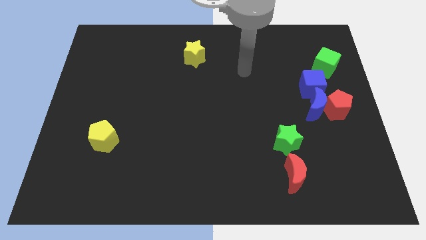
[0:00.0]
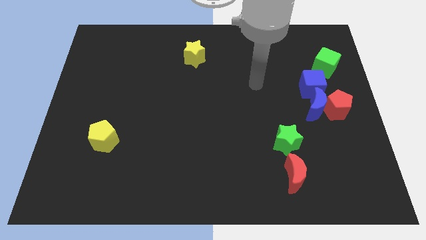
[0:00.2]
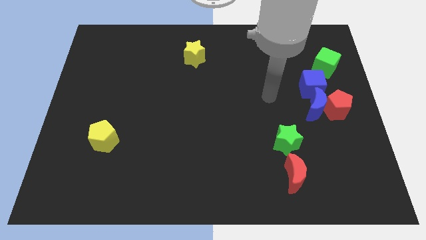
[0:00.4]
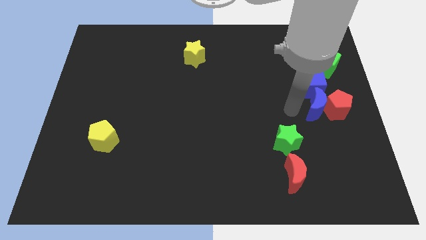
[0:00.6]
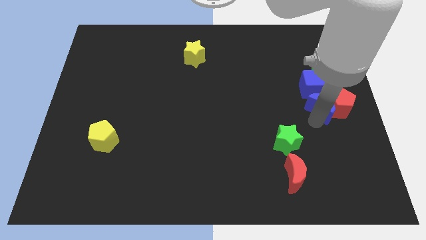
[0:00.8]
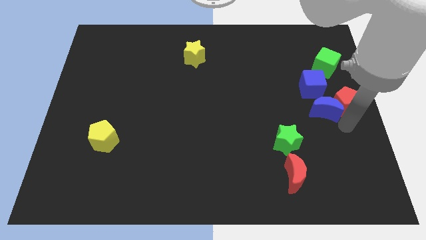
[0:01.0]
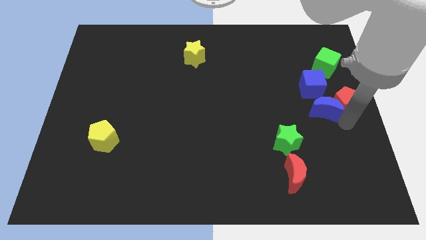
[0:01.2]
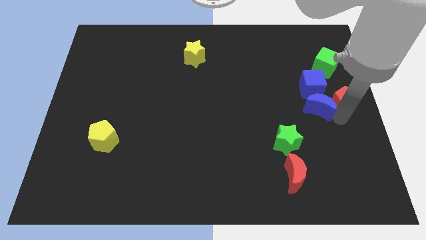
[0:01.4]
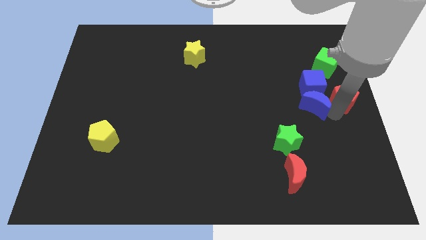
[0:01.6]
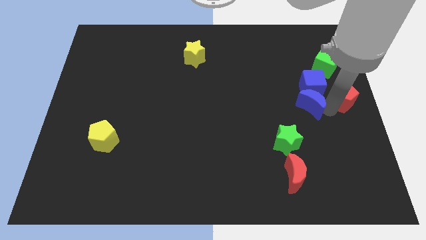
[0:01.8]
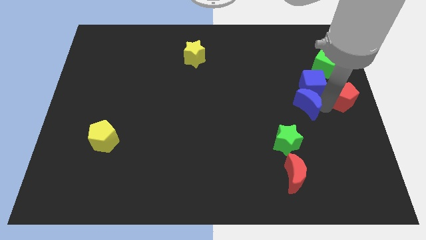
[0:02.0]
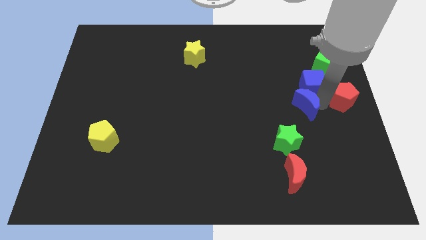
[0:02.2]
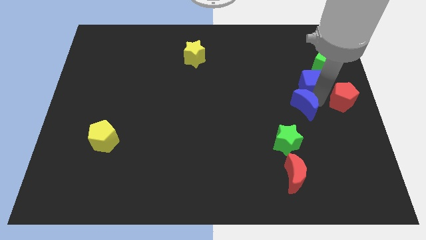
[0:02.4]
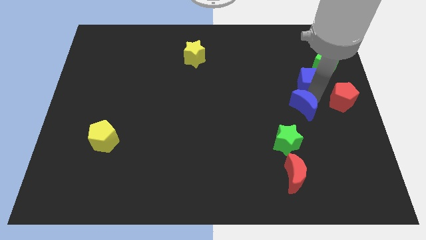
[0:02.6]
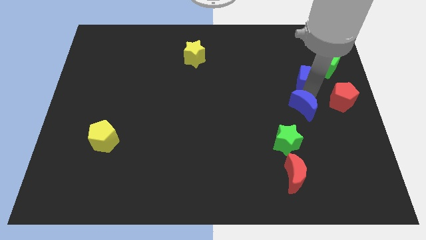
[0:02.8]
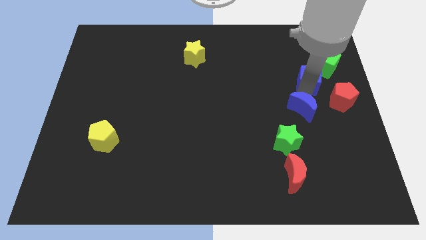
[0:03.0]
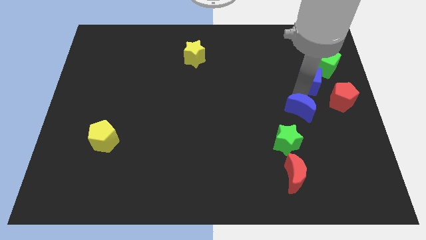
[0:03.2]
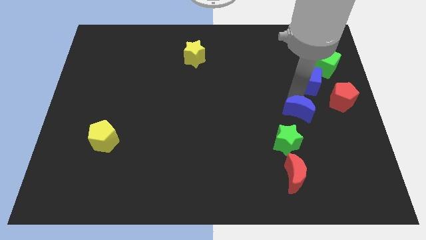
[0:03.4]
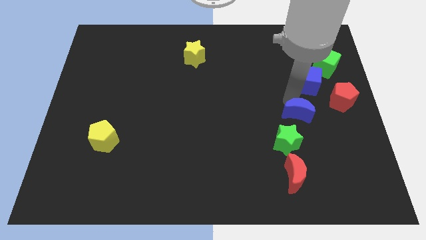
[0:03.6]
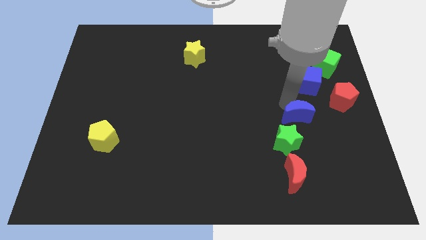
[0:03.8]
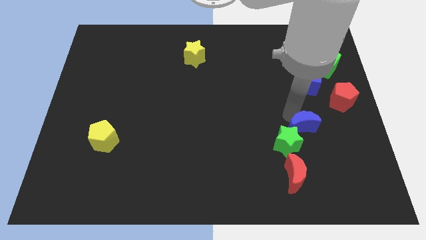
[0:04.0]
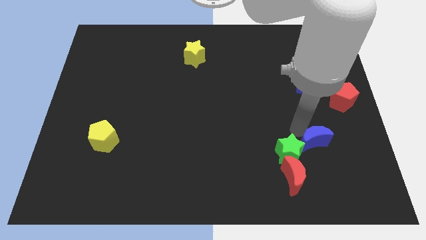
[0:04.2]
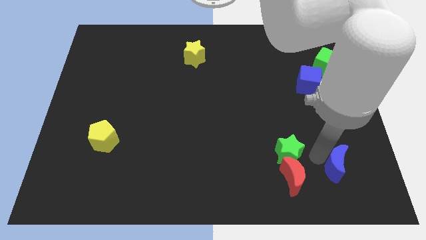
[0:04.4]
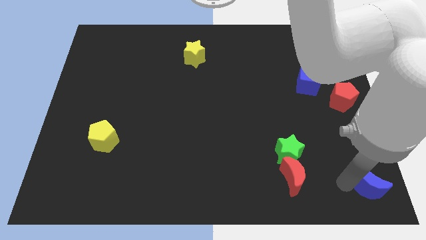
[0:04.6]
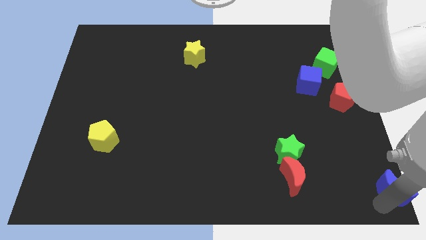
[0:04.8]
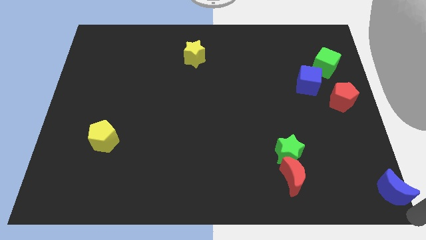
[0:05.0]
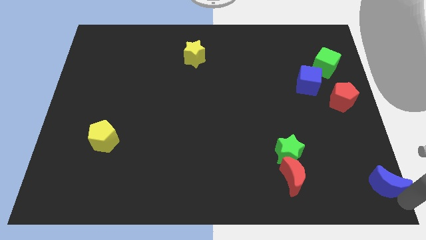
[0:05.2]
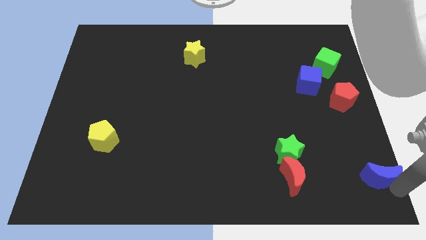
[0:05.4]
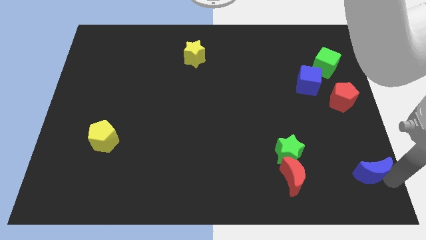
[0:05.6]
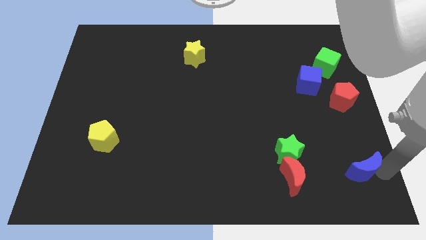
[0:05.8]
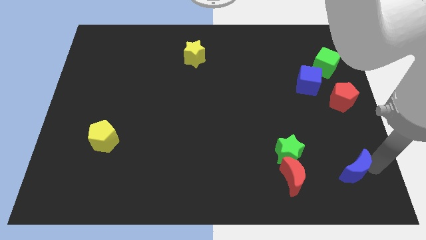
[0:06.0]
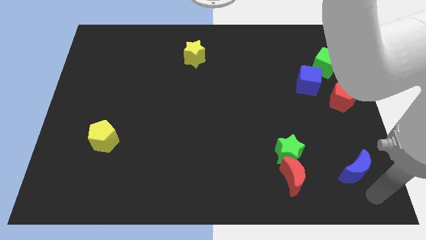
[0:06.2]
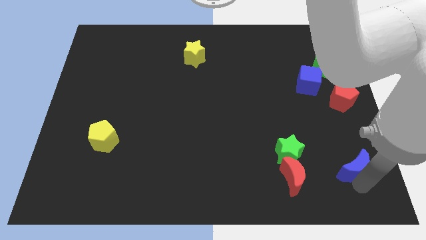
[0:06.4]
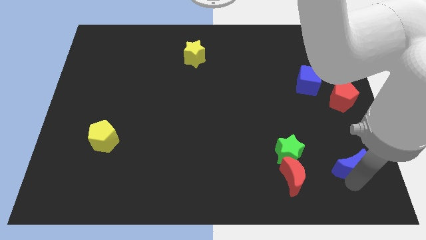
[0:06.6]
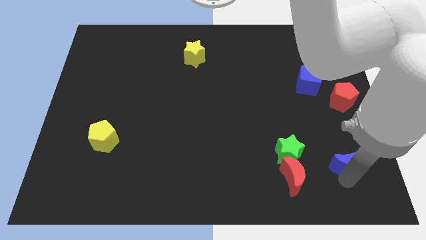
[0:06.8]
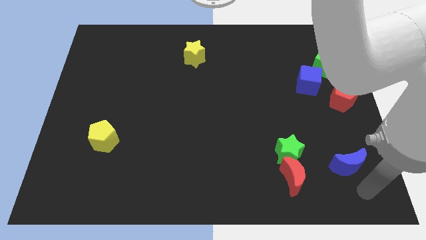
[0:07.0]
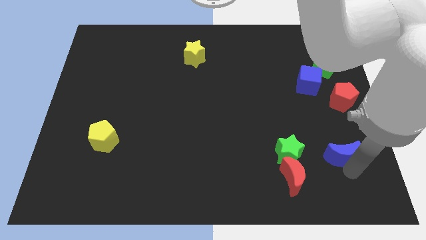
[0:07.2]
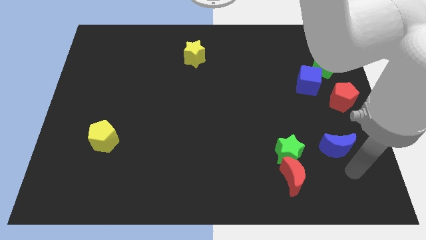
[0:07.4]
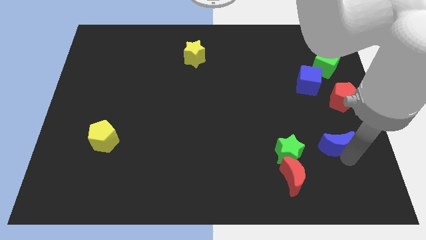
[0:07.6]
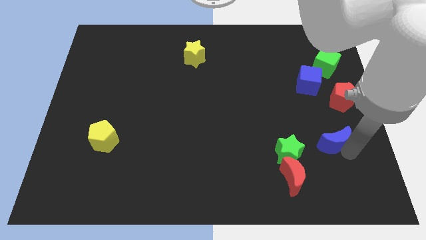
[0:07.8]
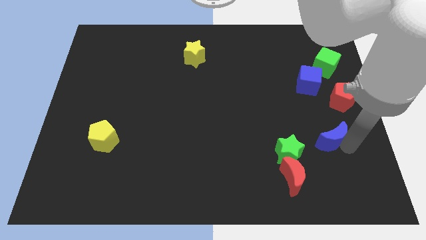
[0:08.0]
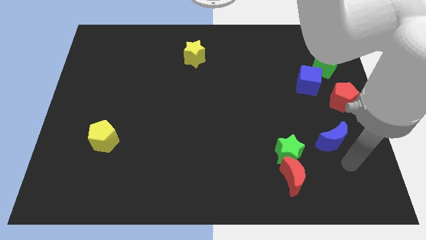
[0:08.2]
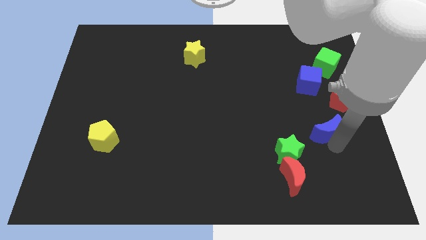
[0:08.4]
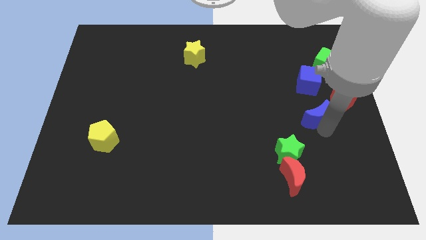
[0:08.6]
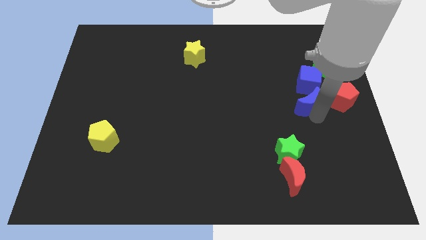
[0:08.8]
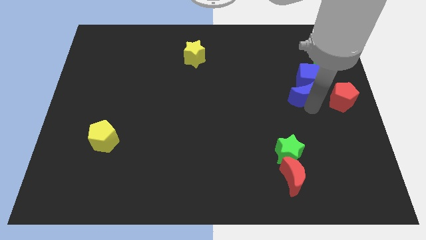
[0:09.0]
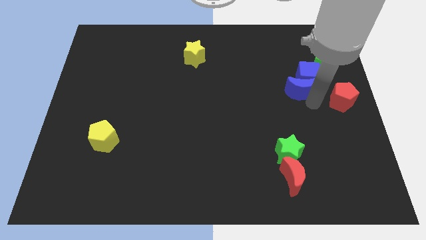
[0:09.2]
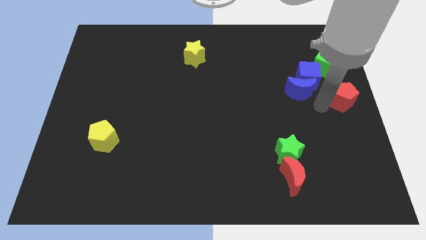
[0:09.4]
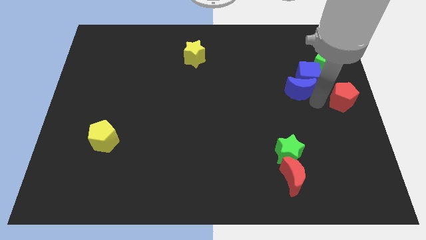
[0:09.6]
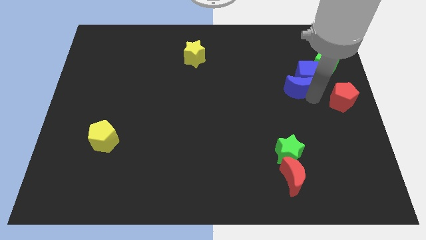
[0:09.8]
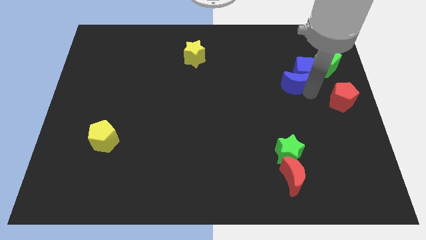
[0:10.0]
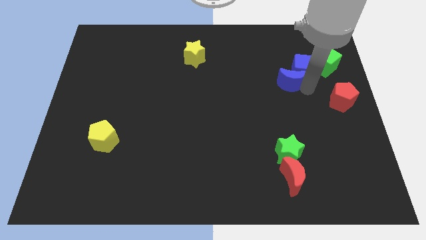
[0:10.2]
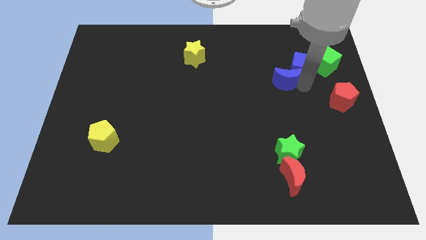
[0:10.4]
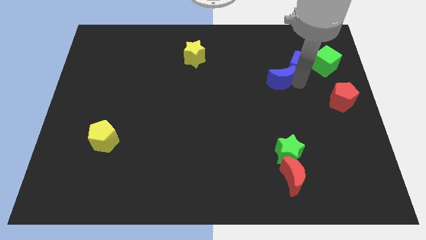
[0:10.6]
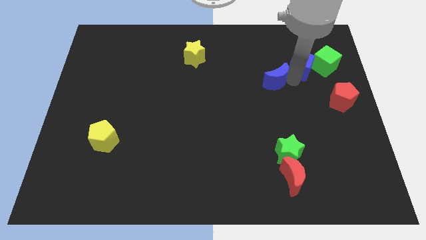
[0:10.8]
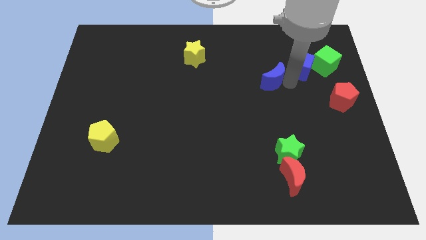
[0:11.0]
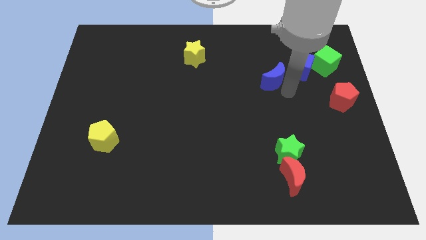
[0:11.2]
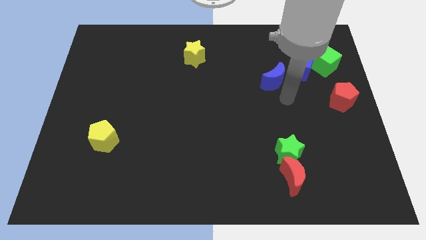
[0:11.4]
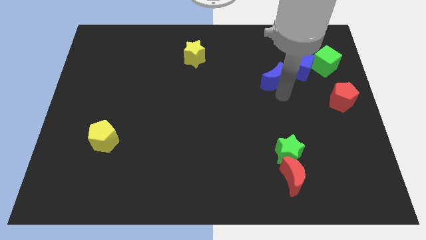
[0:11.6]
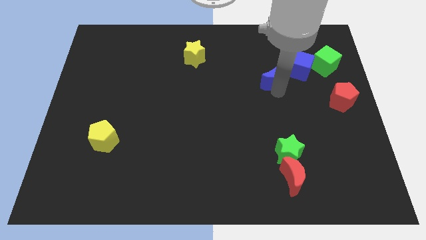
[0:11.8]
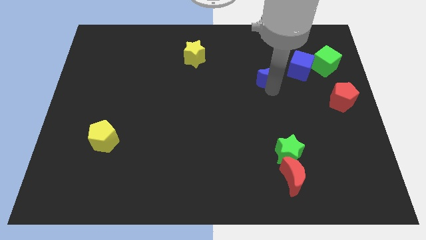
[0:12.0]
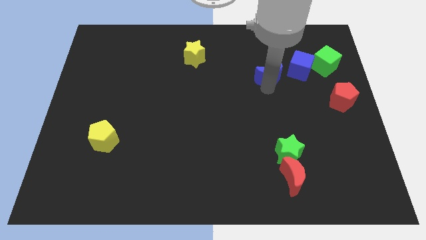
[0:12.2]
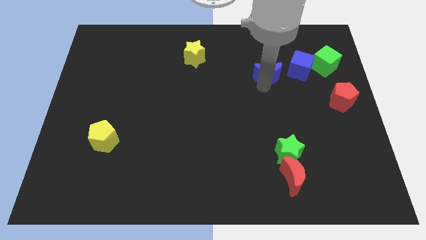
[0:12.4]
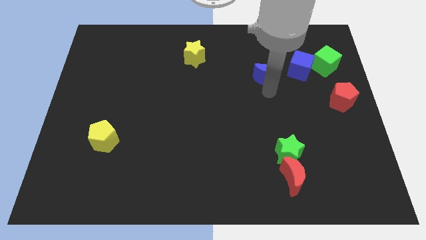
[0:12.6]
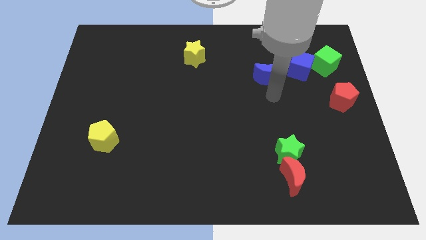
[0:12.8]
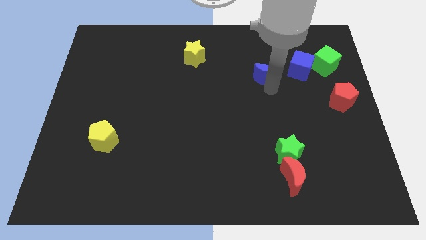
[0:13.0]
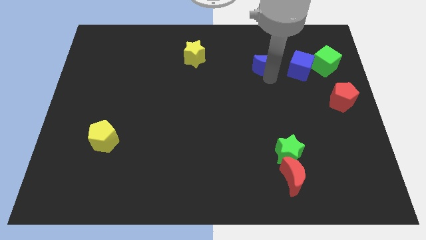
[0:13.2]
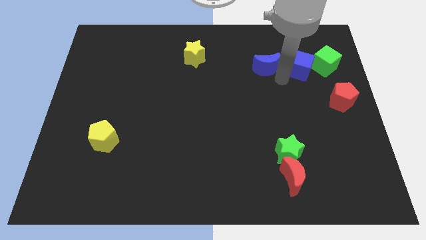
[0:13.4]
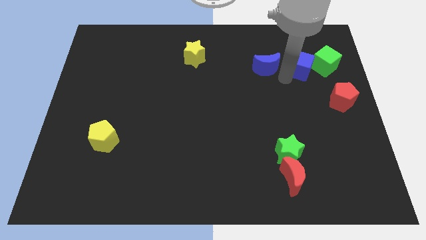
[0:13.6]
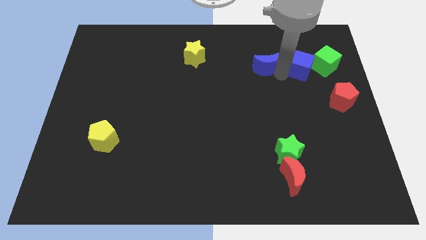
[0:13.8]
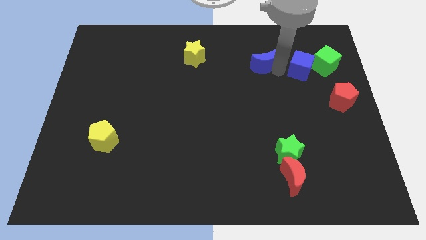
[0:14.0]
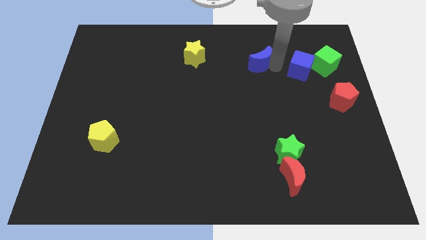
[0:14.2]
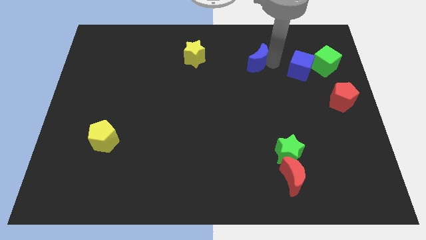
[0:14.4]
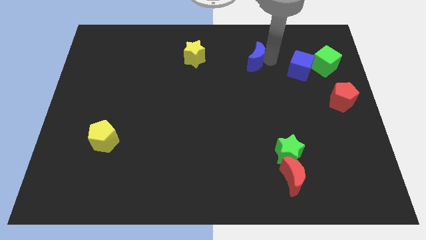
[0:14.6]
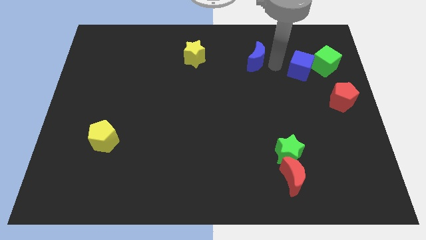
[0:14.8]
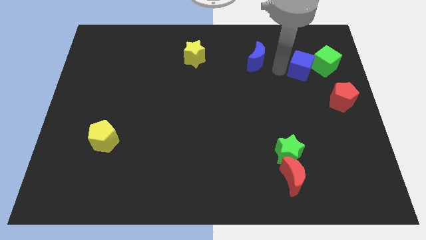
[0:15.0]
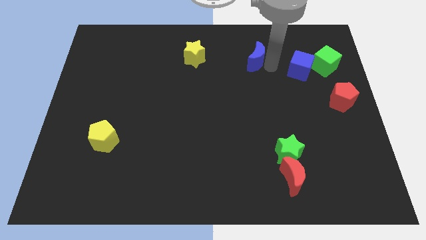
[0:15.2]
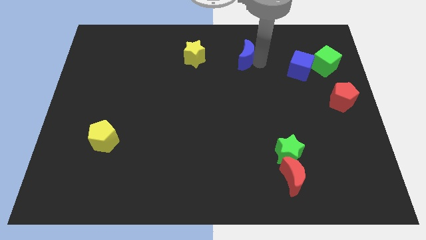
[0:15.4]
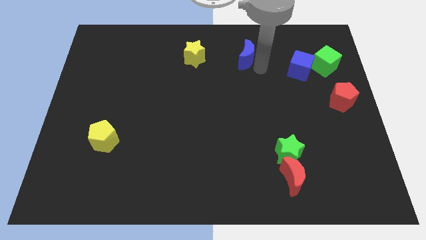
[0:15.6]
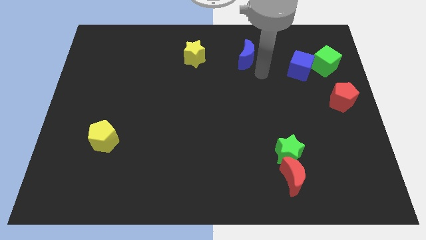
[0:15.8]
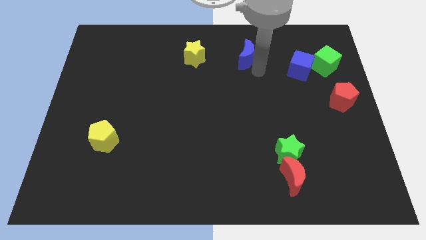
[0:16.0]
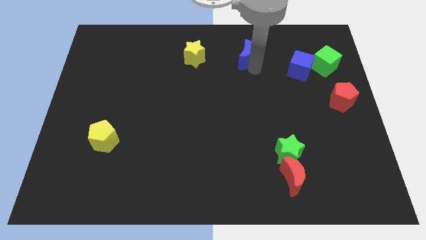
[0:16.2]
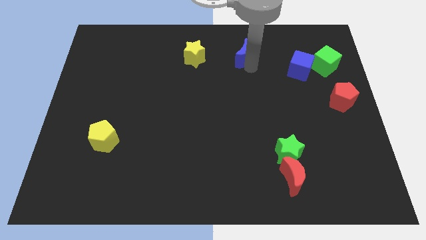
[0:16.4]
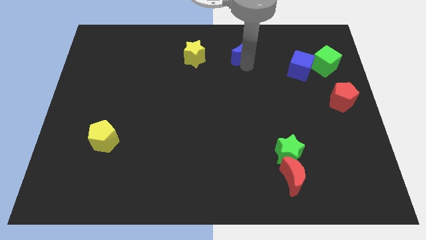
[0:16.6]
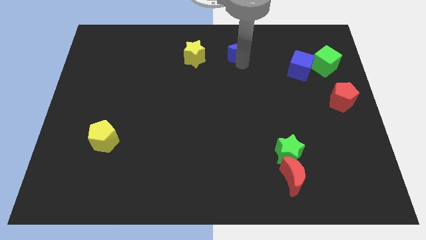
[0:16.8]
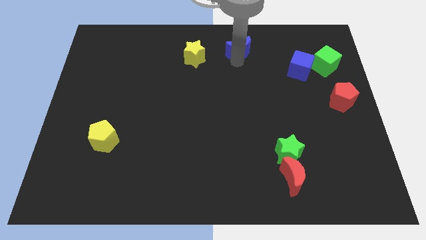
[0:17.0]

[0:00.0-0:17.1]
slide the blue moon to the top
